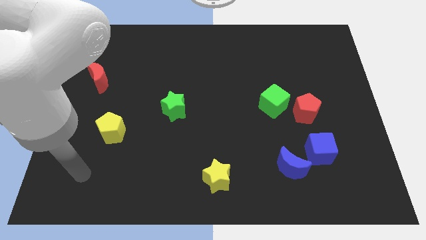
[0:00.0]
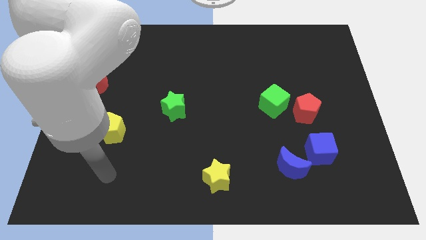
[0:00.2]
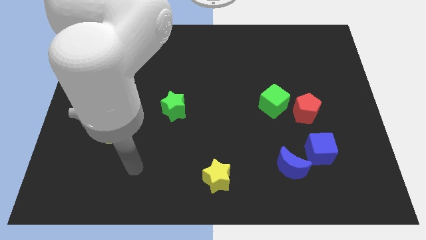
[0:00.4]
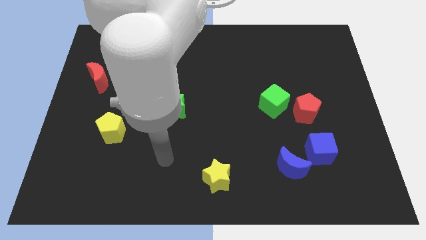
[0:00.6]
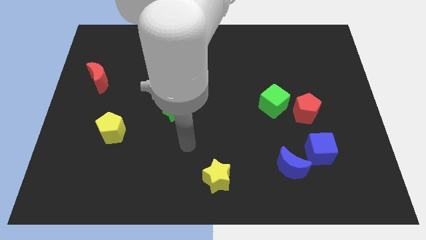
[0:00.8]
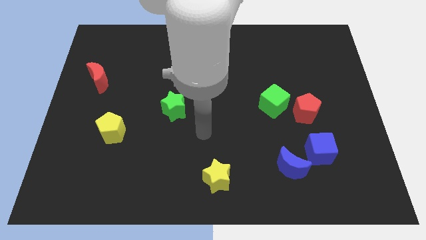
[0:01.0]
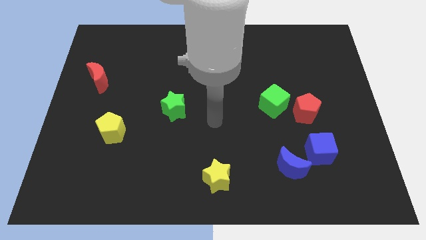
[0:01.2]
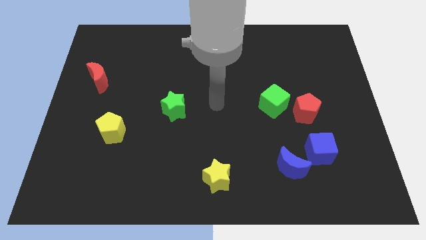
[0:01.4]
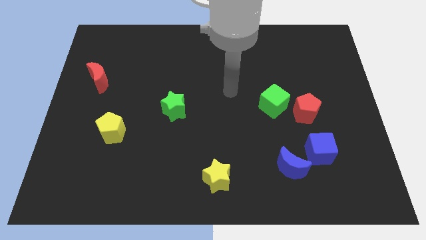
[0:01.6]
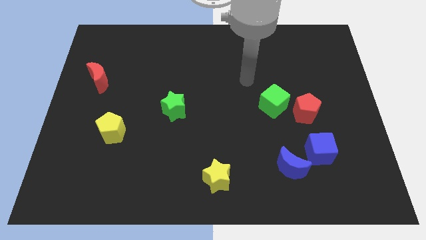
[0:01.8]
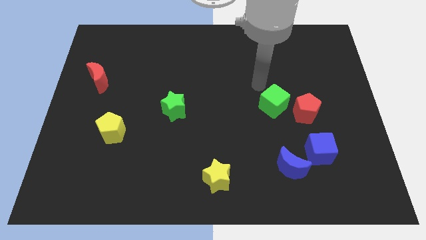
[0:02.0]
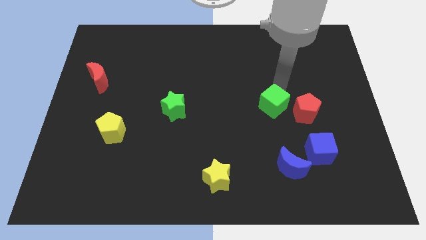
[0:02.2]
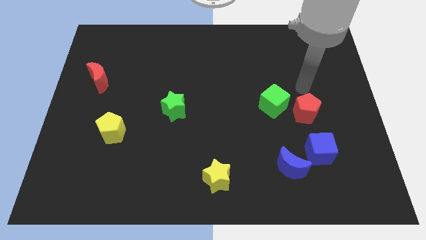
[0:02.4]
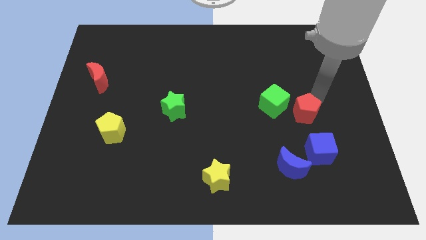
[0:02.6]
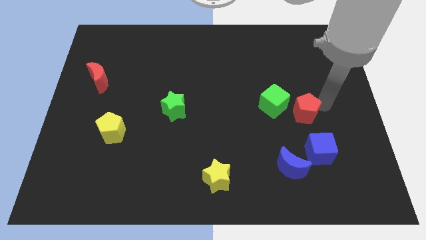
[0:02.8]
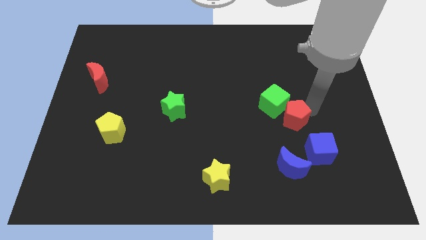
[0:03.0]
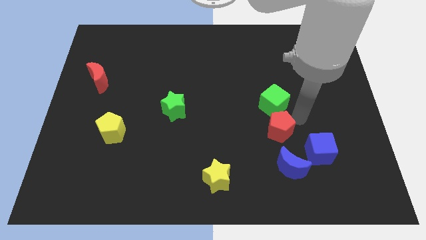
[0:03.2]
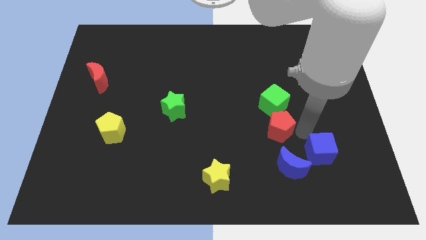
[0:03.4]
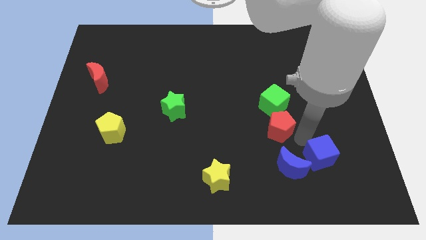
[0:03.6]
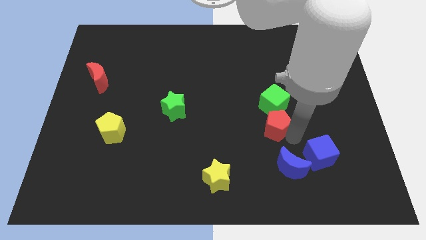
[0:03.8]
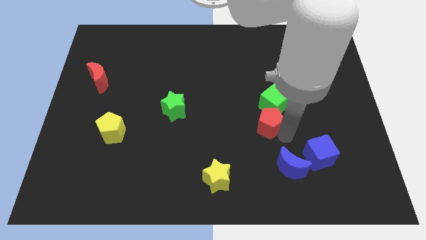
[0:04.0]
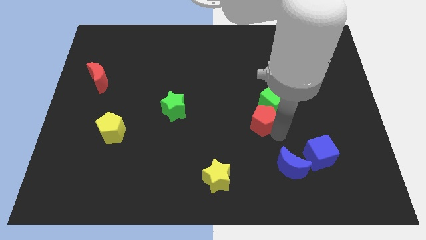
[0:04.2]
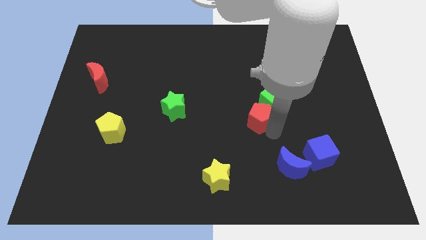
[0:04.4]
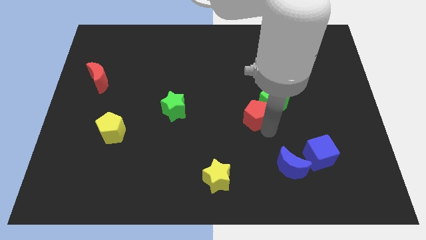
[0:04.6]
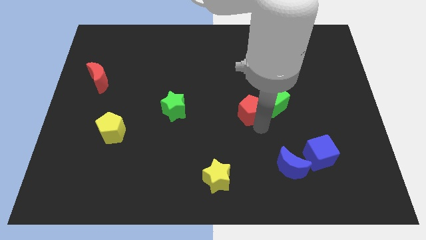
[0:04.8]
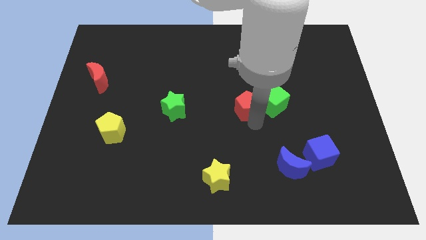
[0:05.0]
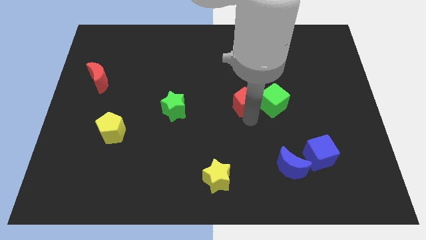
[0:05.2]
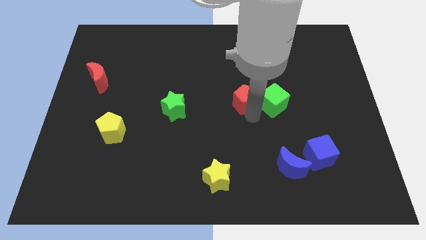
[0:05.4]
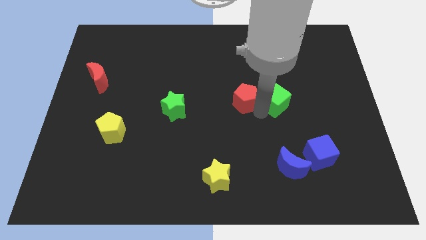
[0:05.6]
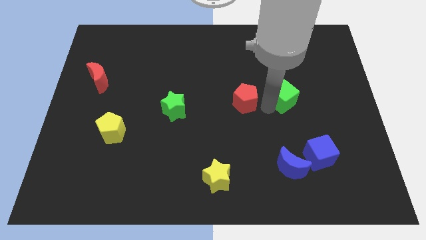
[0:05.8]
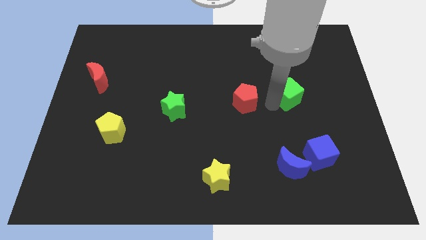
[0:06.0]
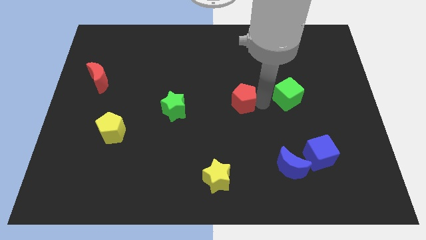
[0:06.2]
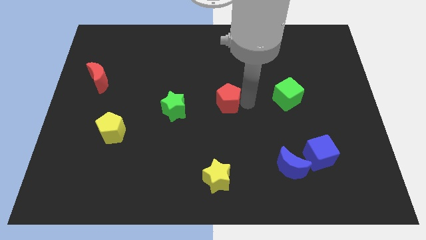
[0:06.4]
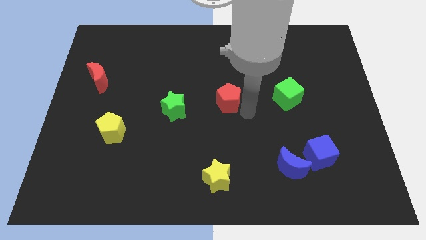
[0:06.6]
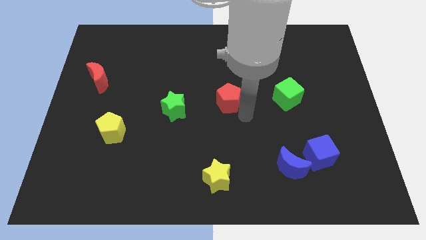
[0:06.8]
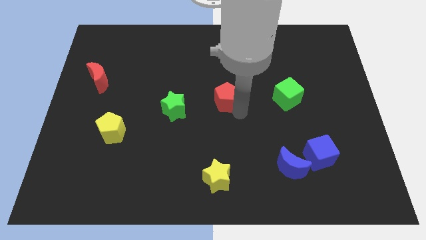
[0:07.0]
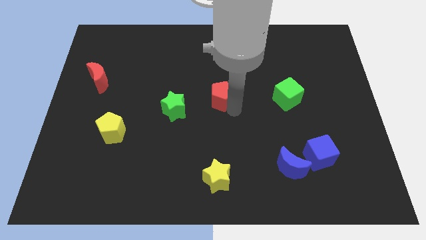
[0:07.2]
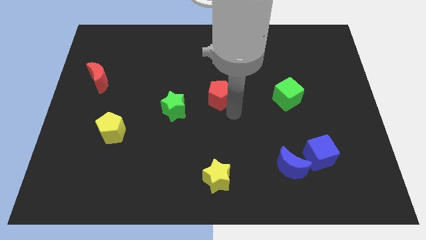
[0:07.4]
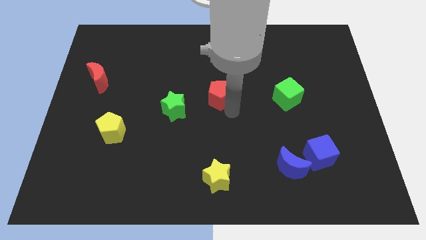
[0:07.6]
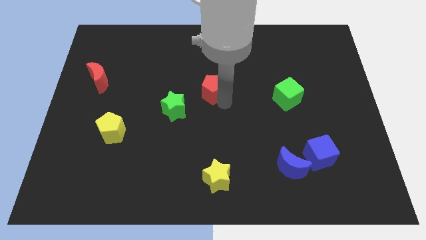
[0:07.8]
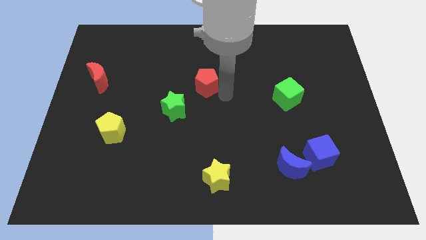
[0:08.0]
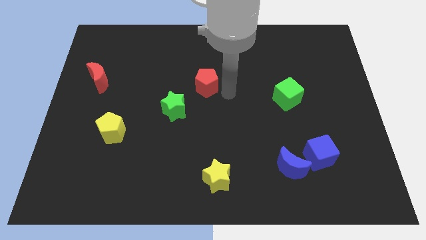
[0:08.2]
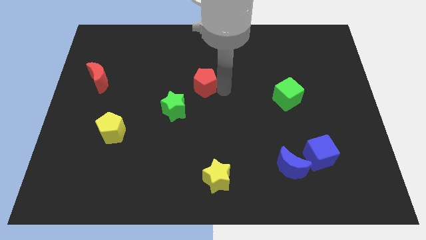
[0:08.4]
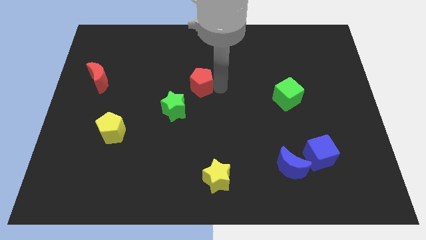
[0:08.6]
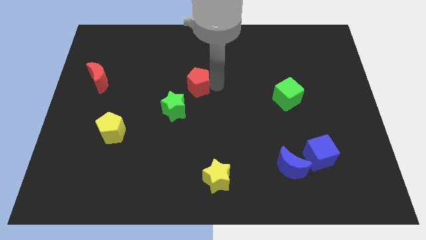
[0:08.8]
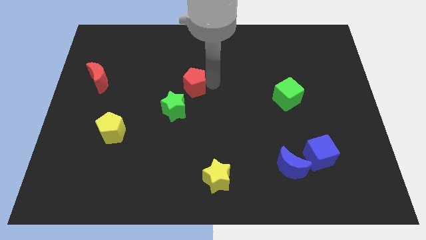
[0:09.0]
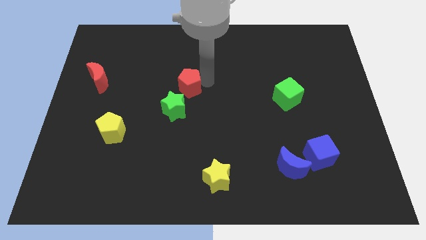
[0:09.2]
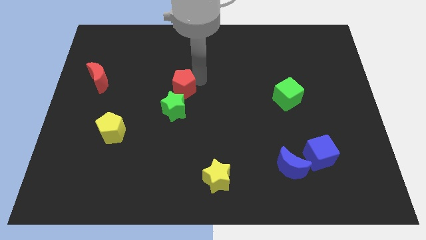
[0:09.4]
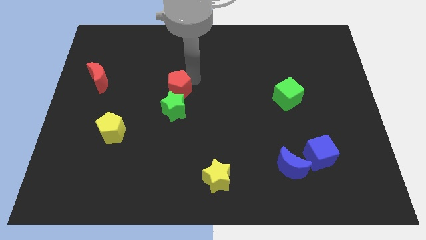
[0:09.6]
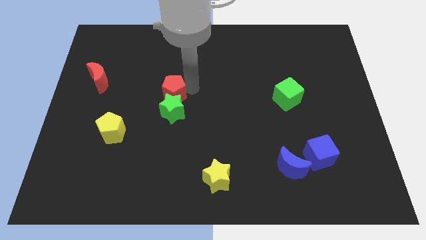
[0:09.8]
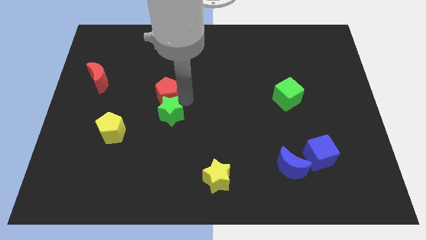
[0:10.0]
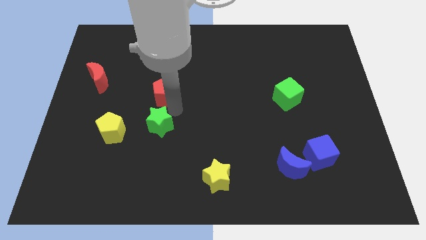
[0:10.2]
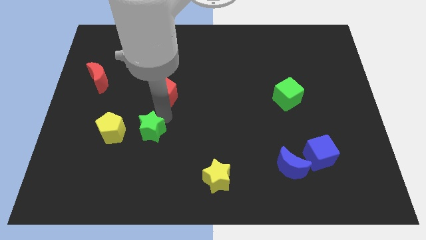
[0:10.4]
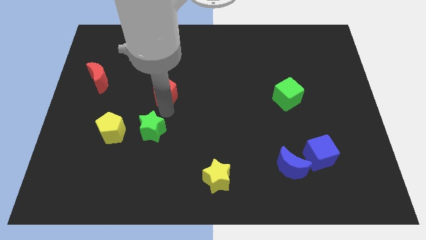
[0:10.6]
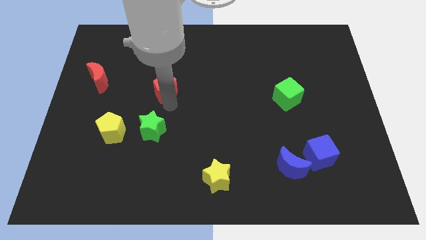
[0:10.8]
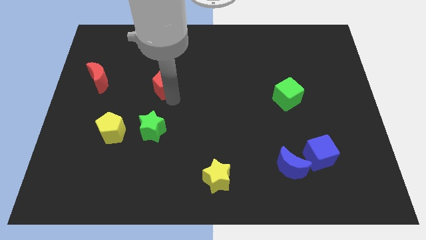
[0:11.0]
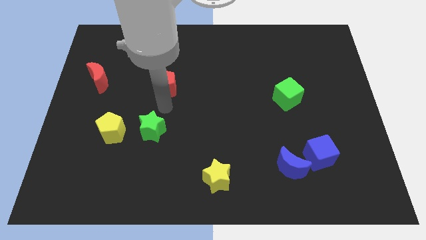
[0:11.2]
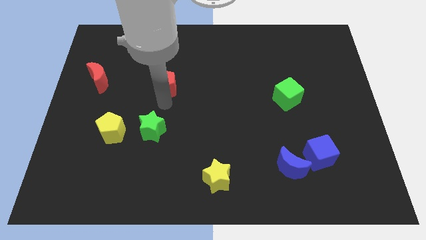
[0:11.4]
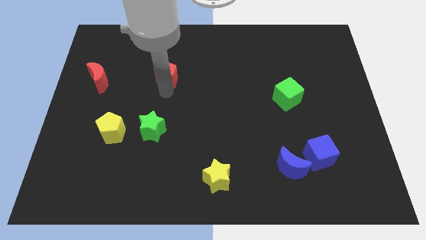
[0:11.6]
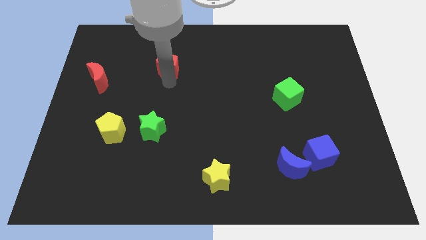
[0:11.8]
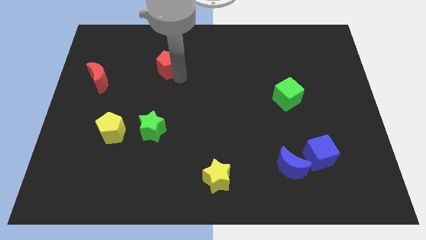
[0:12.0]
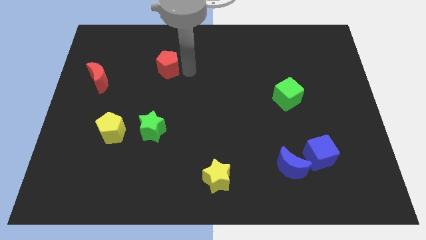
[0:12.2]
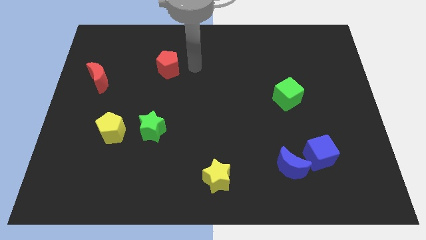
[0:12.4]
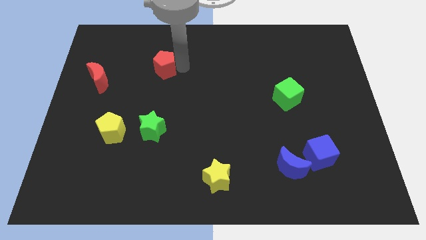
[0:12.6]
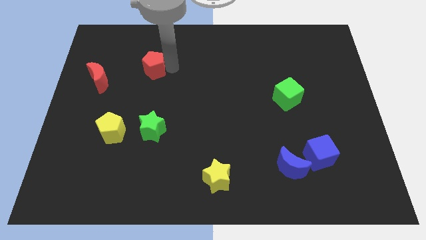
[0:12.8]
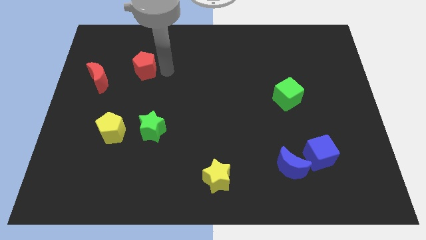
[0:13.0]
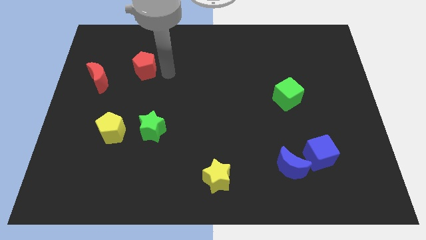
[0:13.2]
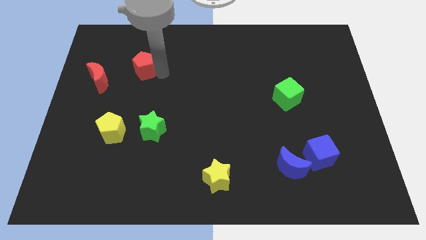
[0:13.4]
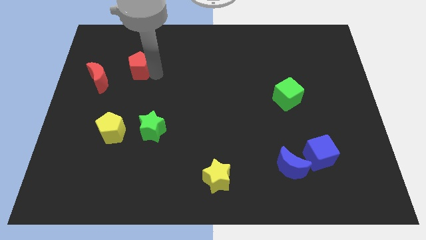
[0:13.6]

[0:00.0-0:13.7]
push the red pentagon to the top right of the red moon
